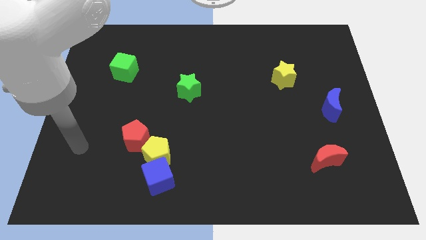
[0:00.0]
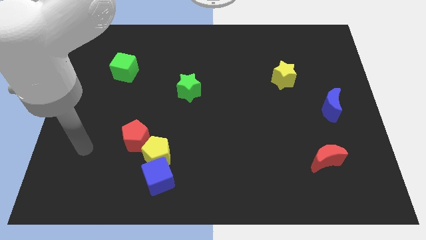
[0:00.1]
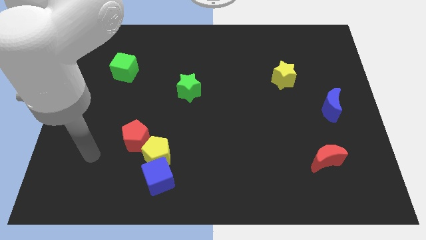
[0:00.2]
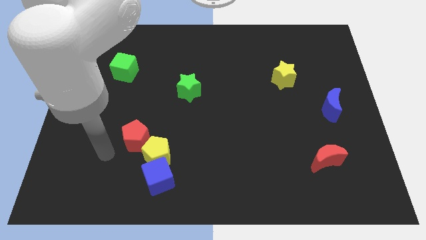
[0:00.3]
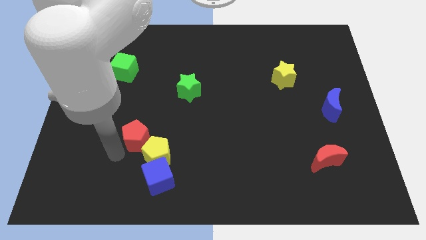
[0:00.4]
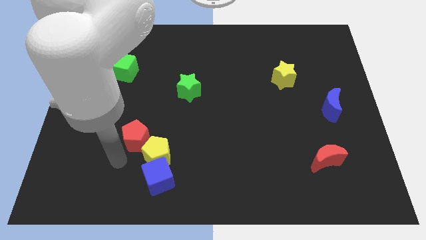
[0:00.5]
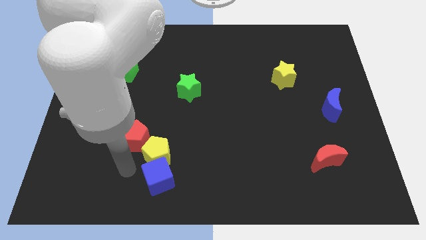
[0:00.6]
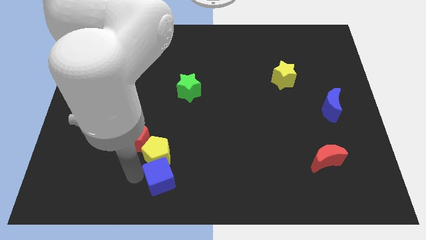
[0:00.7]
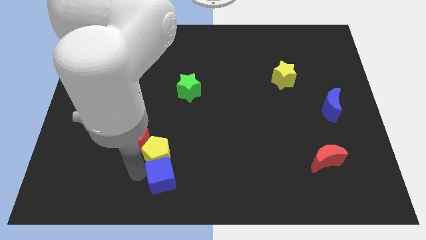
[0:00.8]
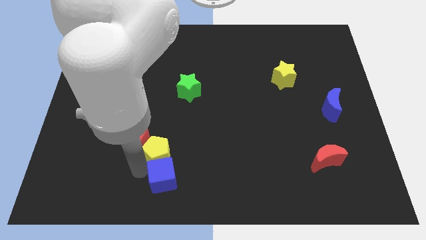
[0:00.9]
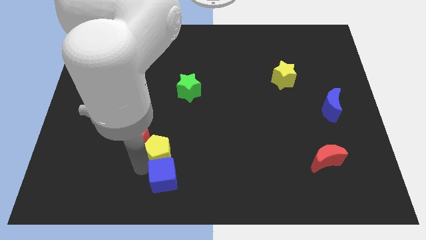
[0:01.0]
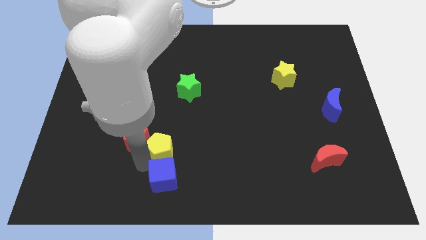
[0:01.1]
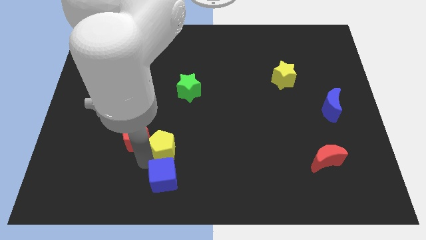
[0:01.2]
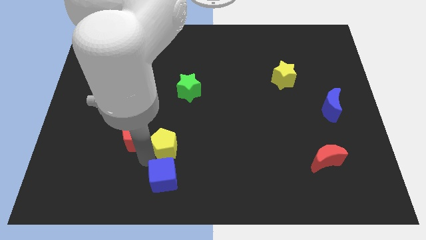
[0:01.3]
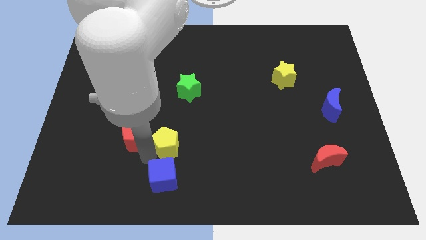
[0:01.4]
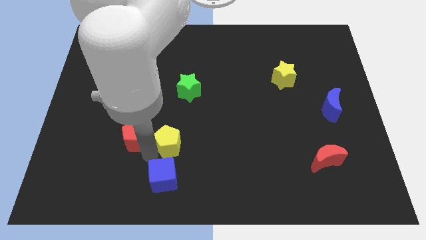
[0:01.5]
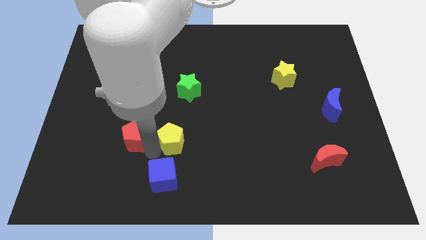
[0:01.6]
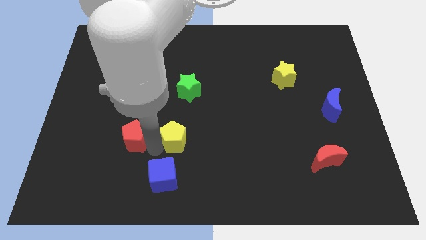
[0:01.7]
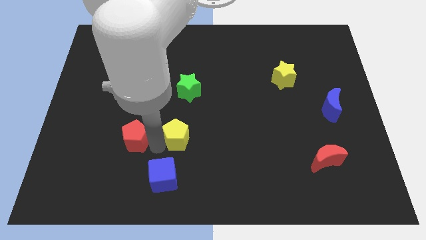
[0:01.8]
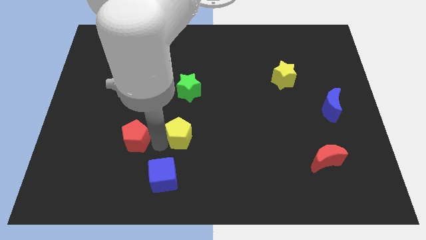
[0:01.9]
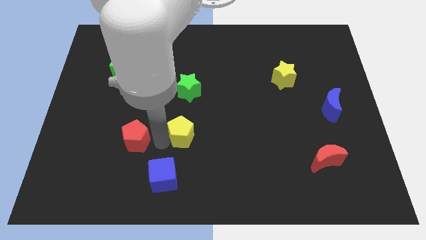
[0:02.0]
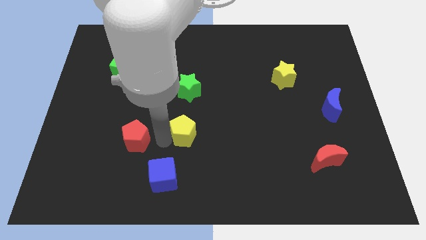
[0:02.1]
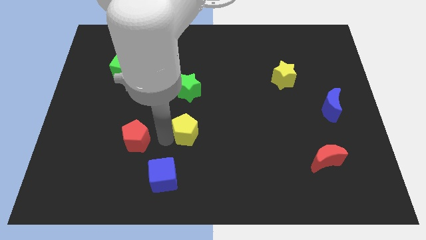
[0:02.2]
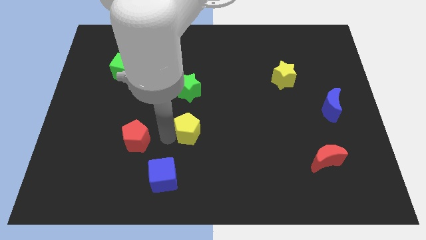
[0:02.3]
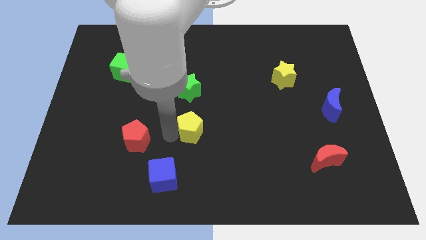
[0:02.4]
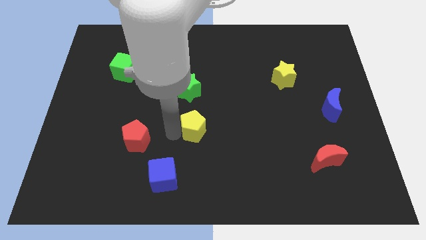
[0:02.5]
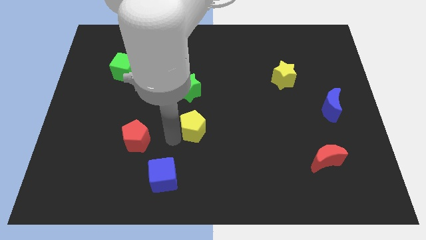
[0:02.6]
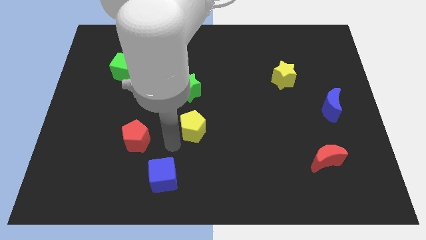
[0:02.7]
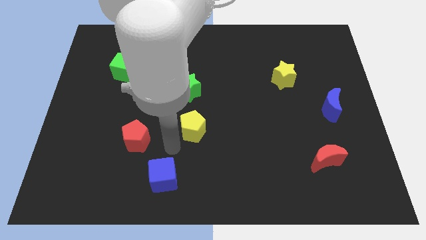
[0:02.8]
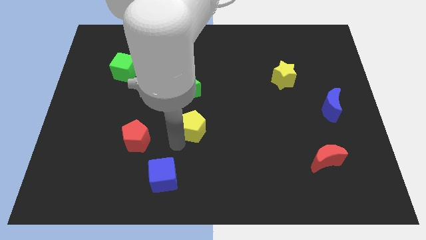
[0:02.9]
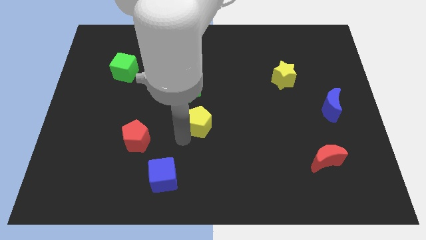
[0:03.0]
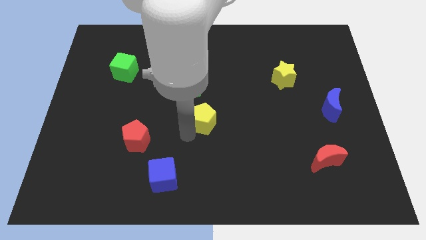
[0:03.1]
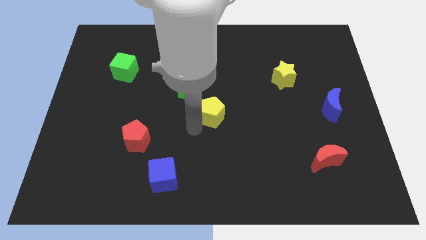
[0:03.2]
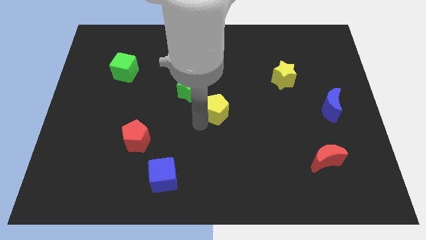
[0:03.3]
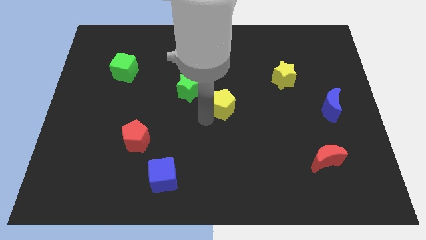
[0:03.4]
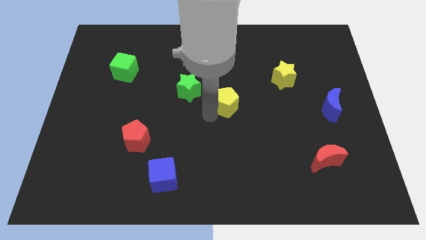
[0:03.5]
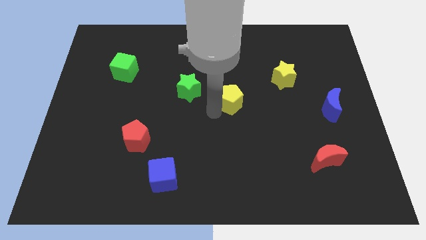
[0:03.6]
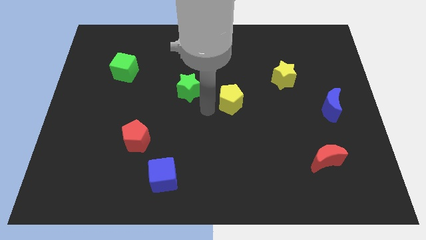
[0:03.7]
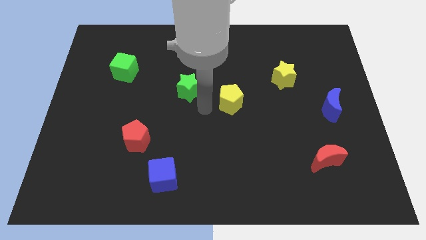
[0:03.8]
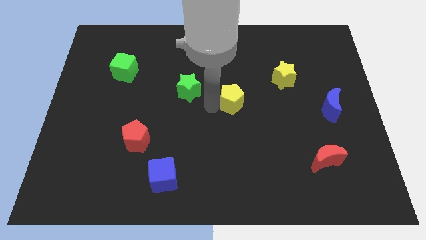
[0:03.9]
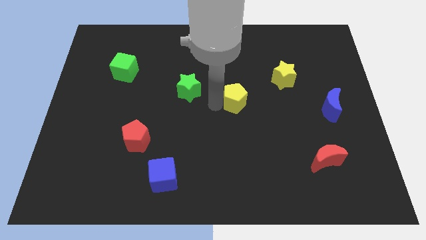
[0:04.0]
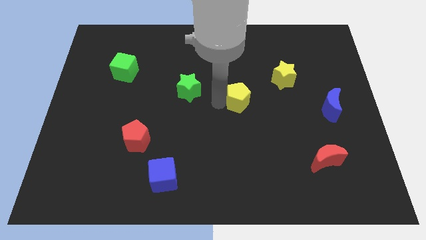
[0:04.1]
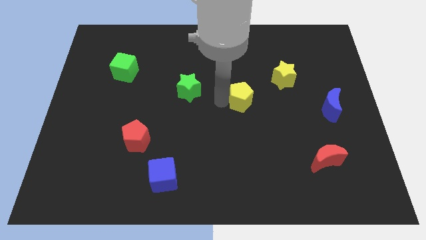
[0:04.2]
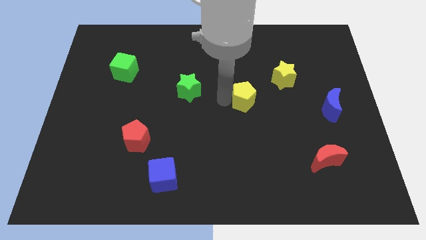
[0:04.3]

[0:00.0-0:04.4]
put the yellow pentagon to the bottom left of the yellow star

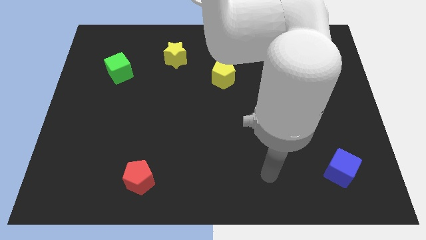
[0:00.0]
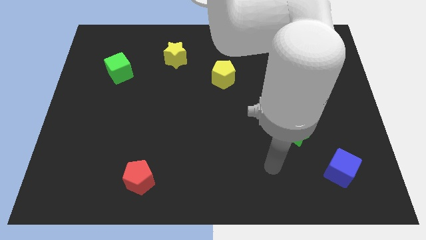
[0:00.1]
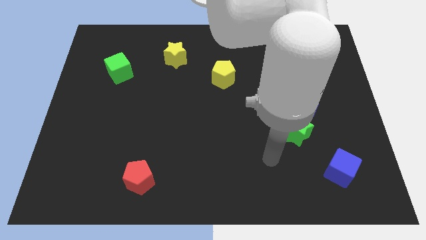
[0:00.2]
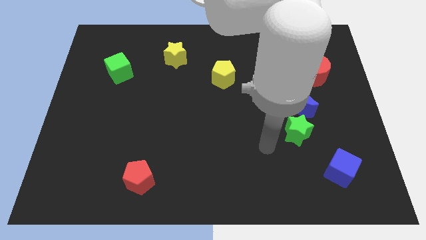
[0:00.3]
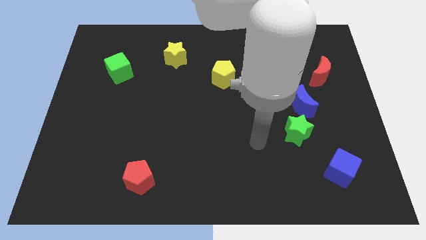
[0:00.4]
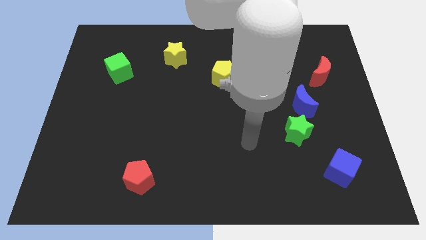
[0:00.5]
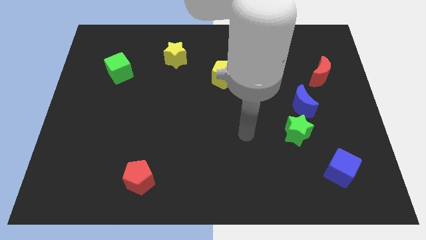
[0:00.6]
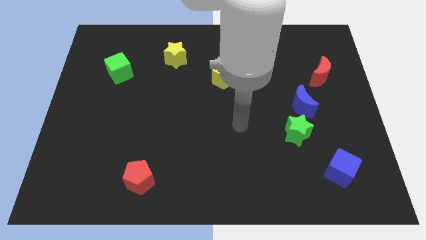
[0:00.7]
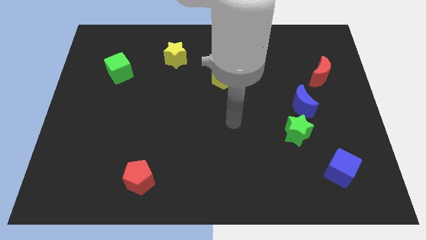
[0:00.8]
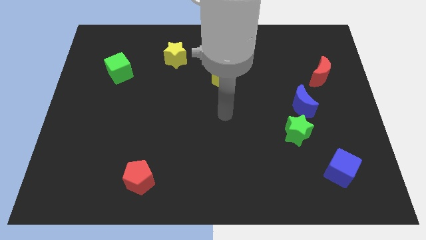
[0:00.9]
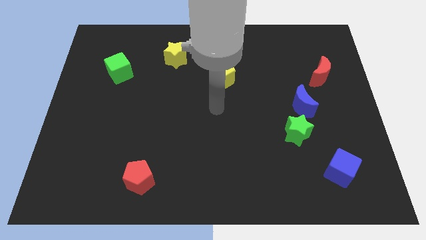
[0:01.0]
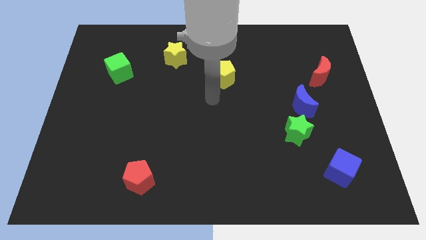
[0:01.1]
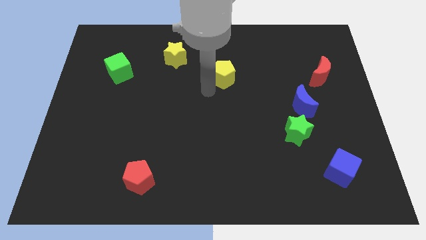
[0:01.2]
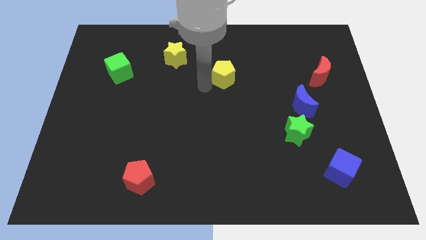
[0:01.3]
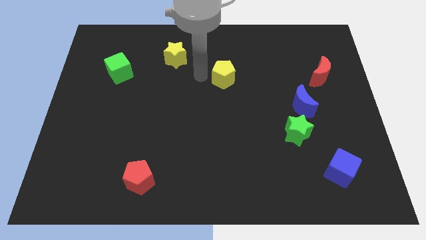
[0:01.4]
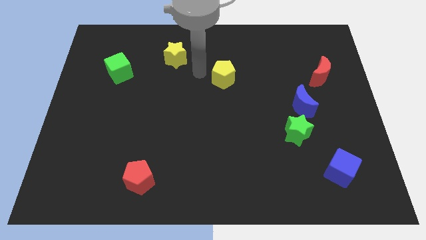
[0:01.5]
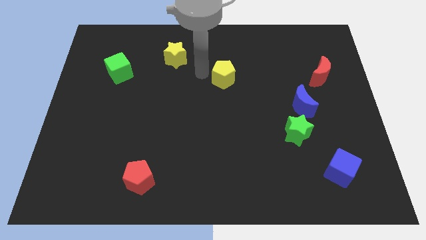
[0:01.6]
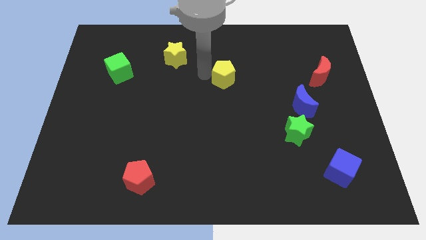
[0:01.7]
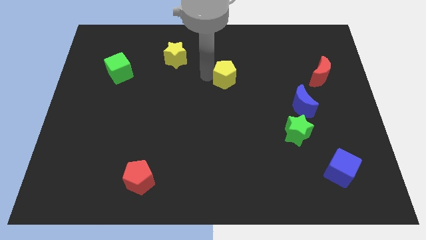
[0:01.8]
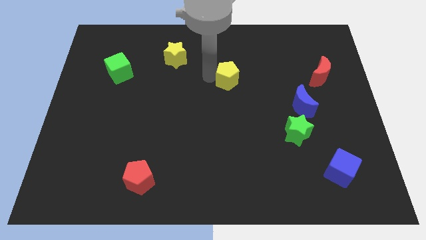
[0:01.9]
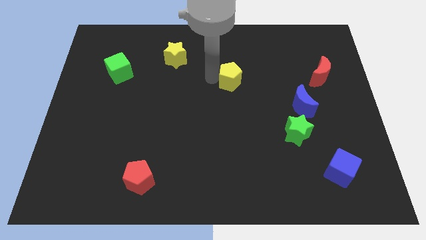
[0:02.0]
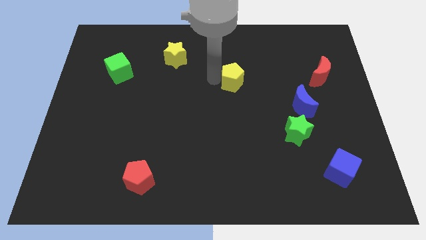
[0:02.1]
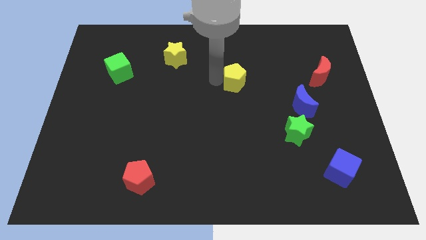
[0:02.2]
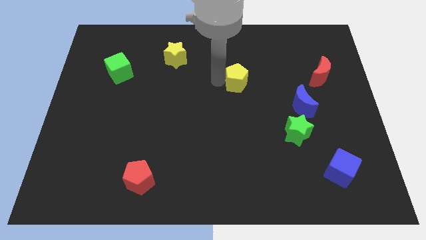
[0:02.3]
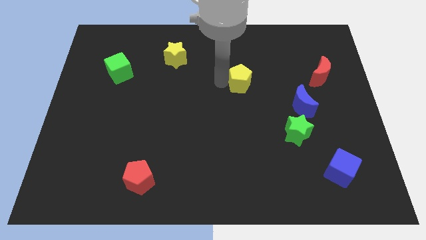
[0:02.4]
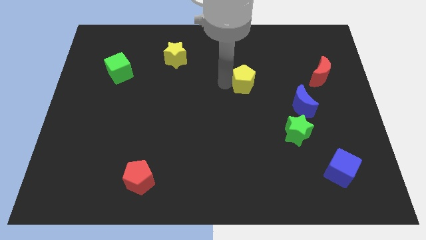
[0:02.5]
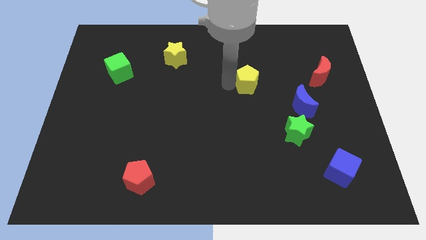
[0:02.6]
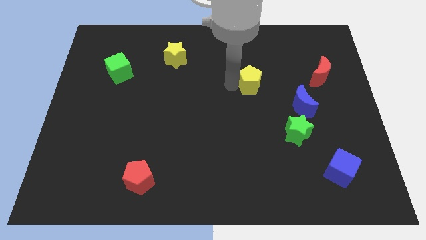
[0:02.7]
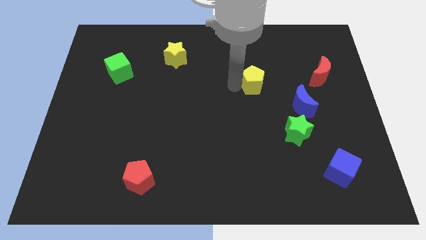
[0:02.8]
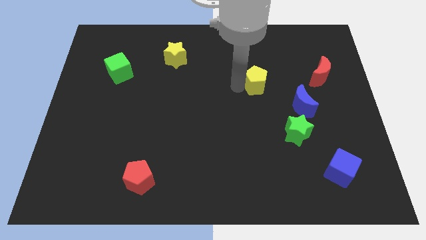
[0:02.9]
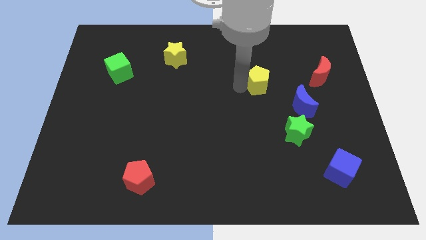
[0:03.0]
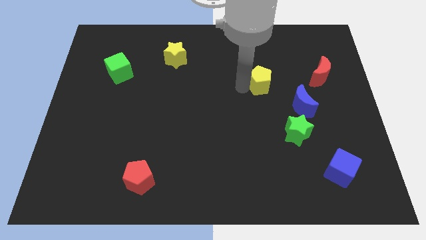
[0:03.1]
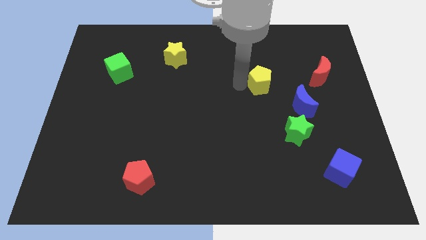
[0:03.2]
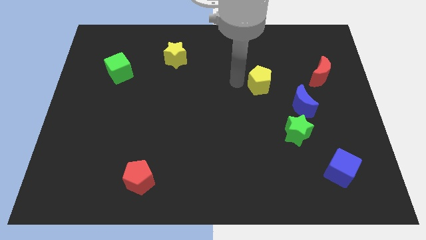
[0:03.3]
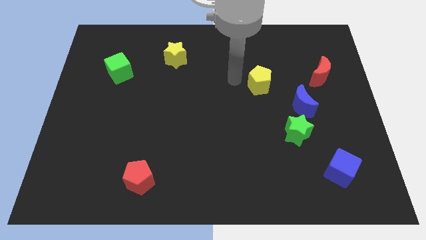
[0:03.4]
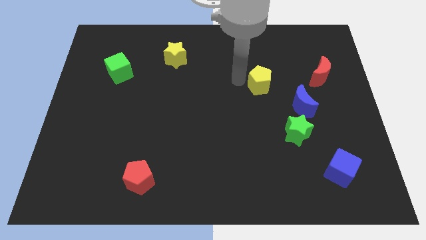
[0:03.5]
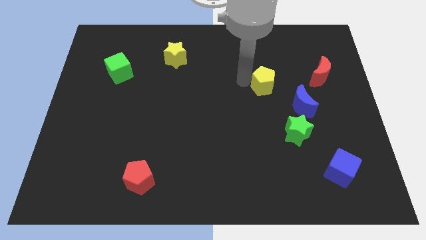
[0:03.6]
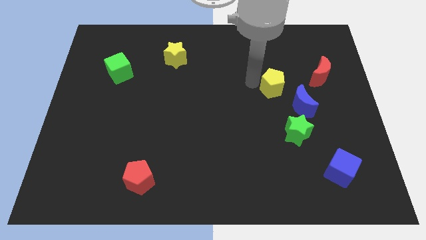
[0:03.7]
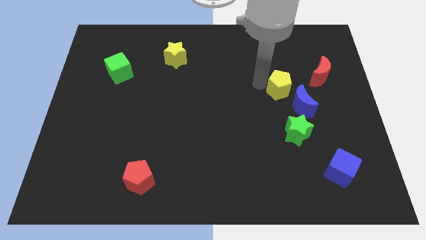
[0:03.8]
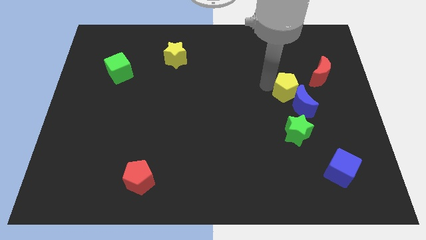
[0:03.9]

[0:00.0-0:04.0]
push the yellow pentagon diagonally down and to the left of the red moon
